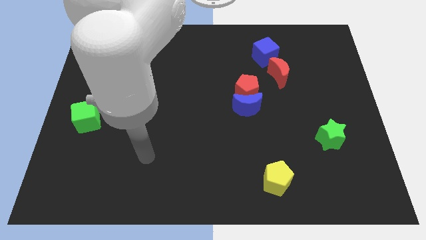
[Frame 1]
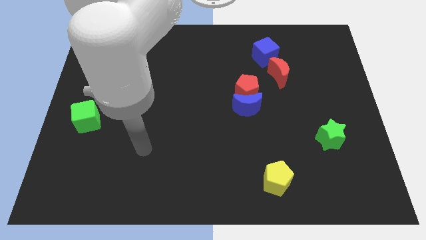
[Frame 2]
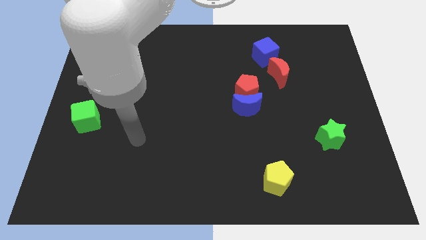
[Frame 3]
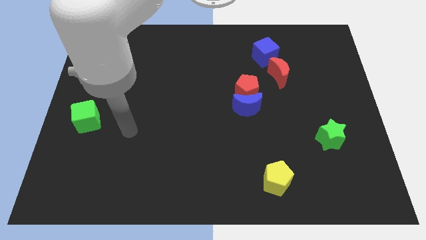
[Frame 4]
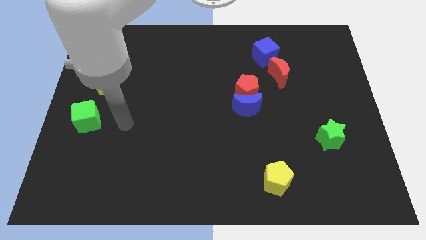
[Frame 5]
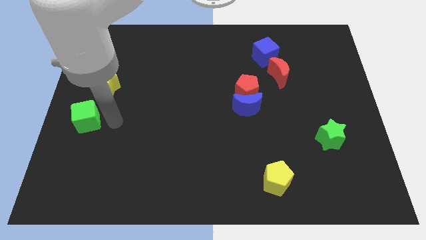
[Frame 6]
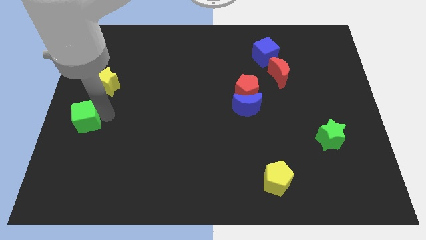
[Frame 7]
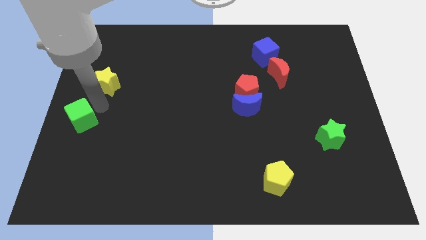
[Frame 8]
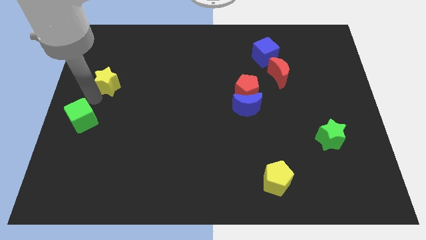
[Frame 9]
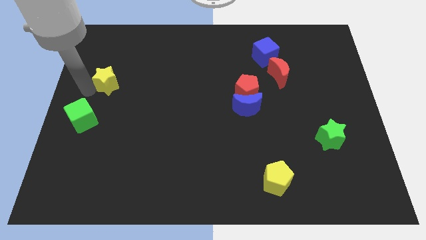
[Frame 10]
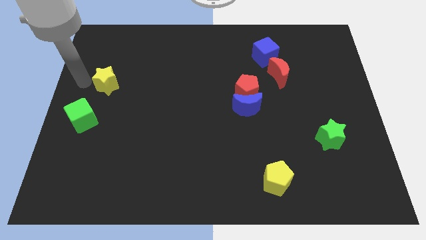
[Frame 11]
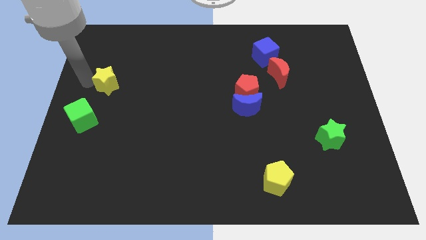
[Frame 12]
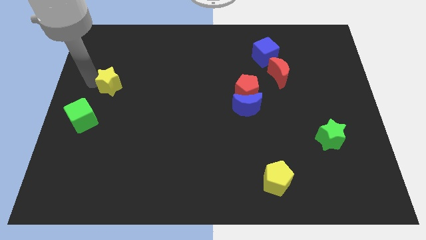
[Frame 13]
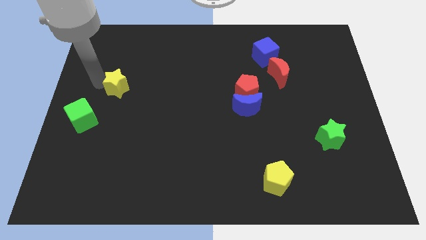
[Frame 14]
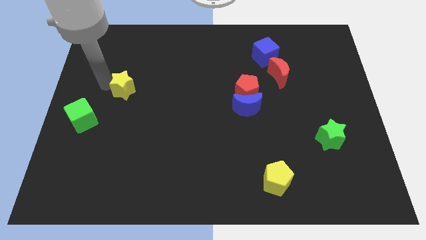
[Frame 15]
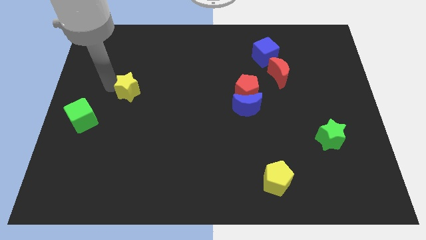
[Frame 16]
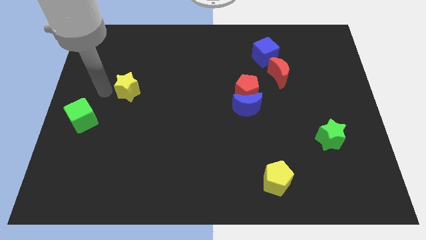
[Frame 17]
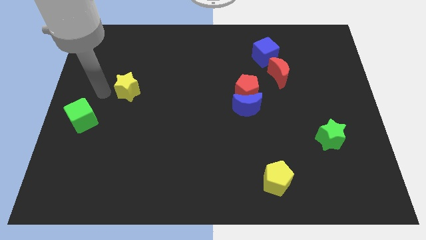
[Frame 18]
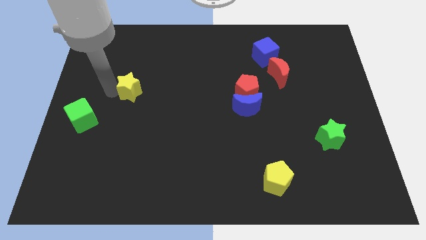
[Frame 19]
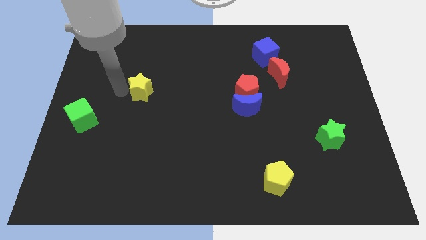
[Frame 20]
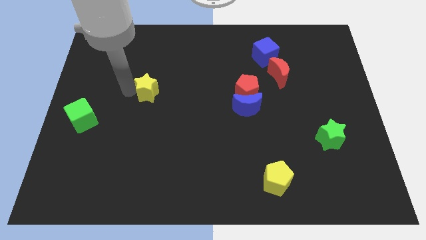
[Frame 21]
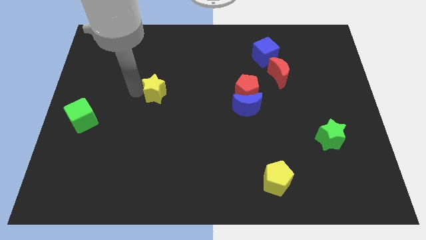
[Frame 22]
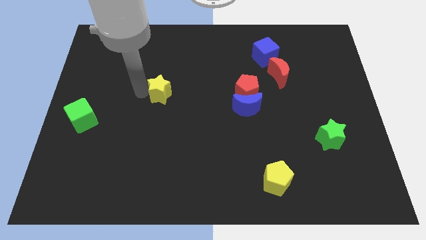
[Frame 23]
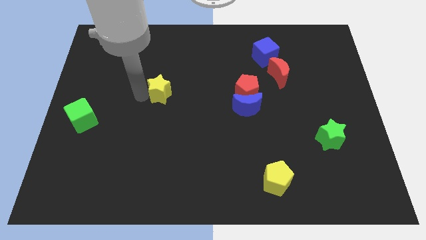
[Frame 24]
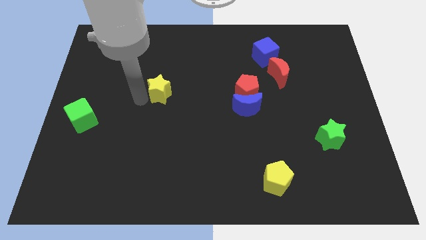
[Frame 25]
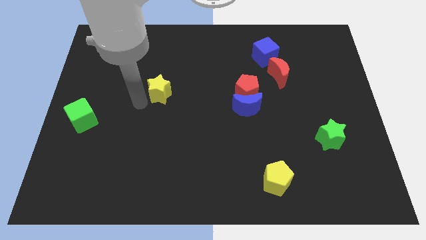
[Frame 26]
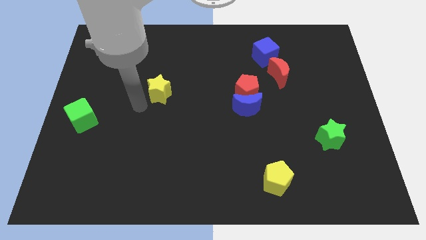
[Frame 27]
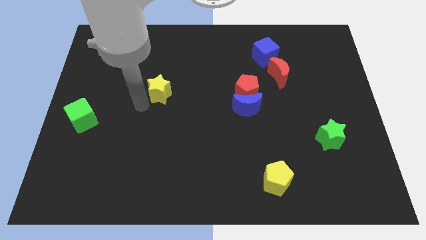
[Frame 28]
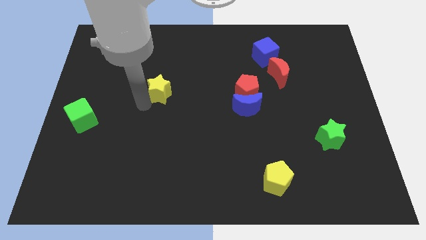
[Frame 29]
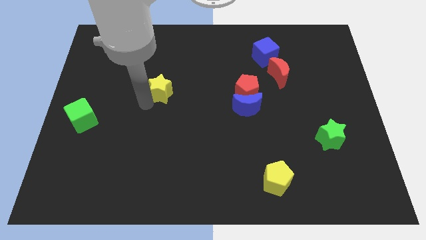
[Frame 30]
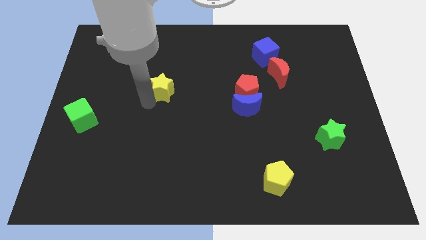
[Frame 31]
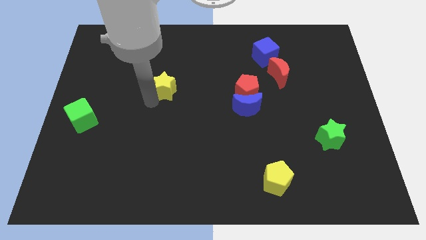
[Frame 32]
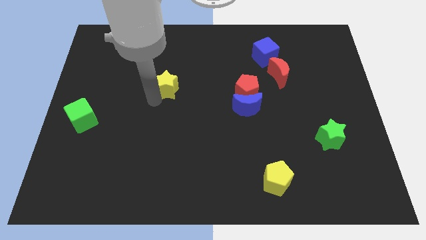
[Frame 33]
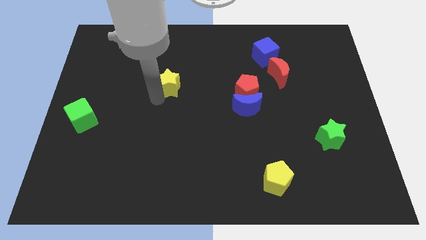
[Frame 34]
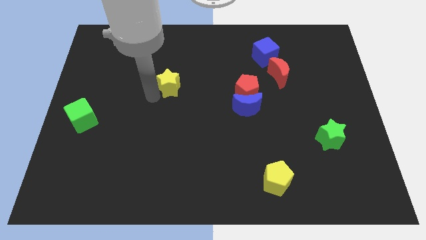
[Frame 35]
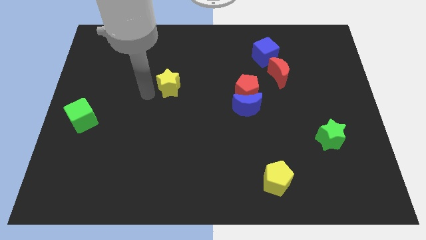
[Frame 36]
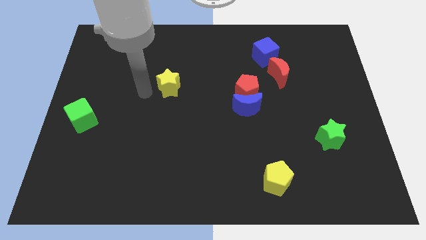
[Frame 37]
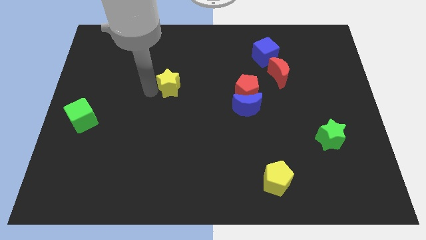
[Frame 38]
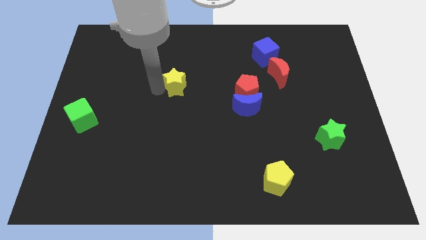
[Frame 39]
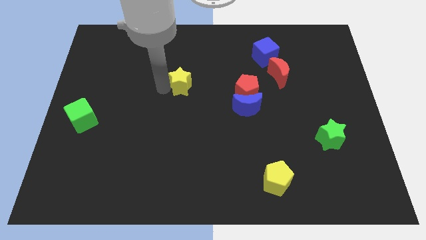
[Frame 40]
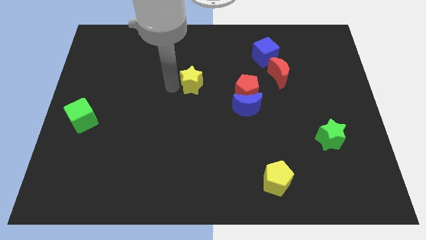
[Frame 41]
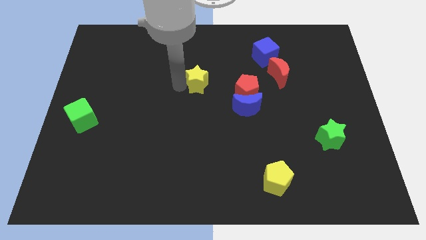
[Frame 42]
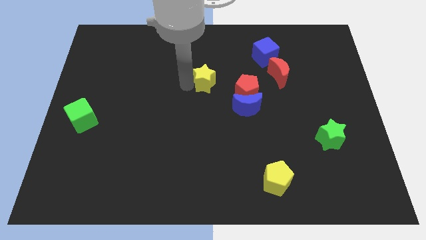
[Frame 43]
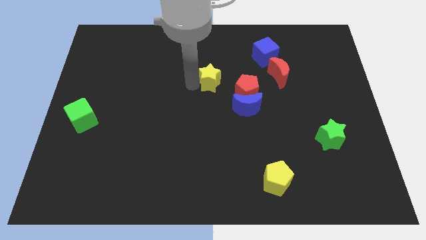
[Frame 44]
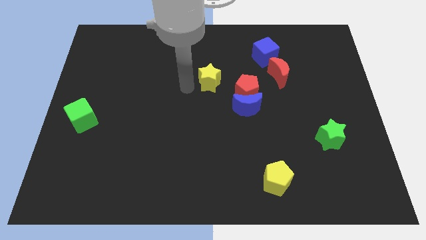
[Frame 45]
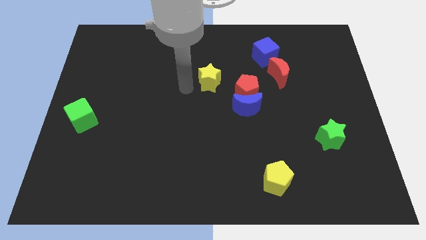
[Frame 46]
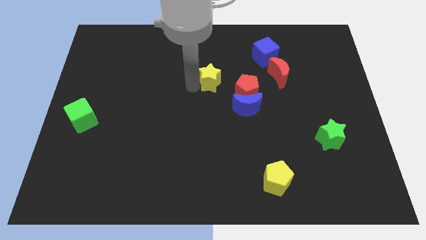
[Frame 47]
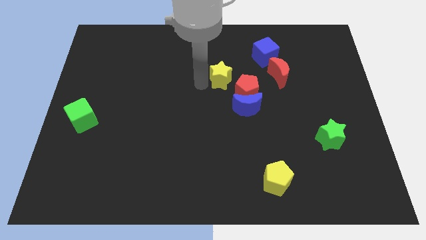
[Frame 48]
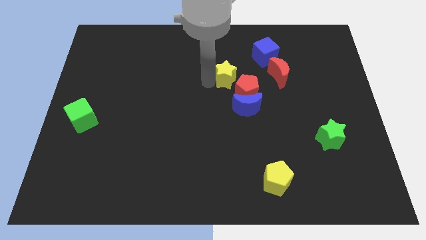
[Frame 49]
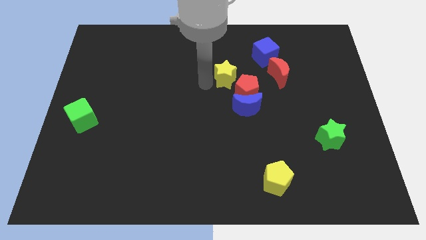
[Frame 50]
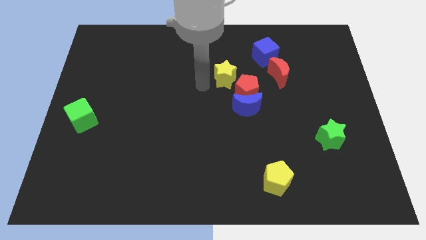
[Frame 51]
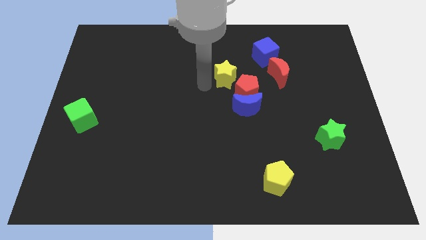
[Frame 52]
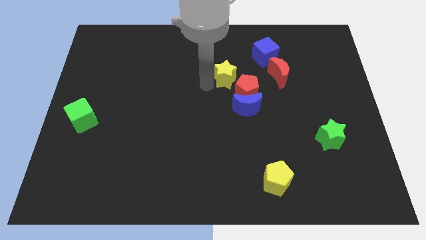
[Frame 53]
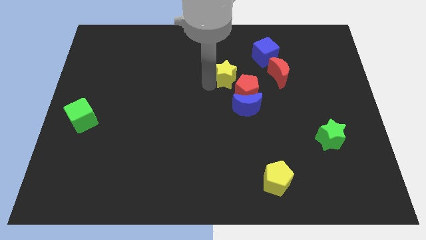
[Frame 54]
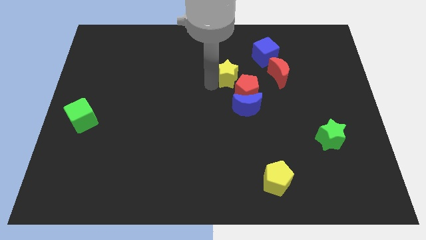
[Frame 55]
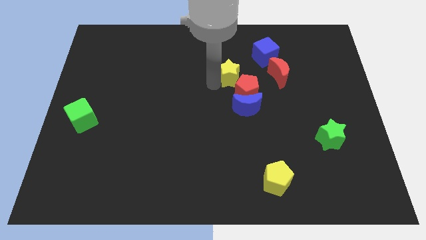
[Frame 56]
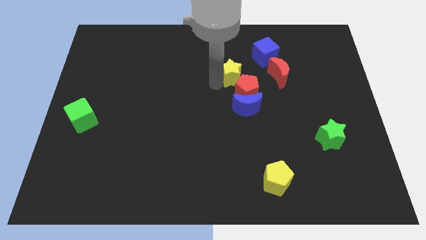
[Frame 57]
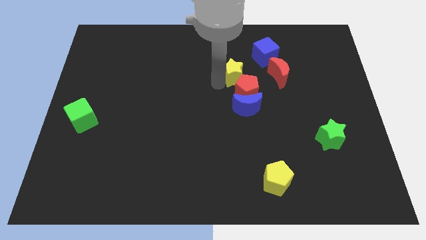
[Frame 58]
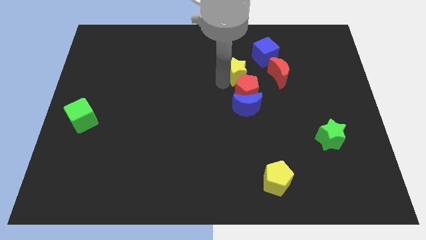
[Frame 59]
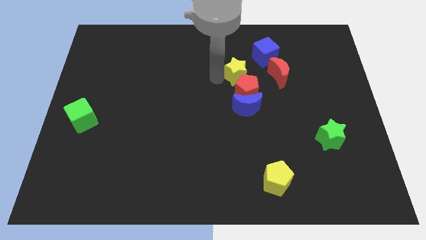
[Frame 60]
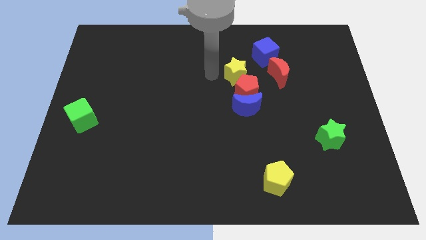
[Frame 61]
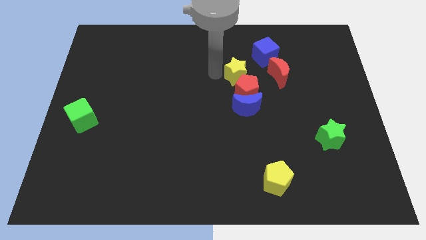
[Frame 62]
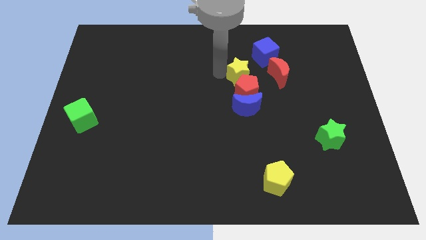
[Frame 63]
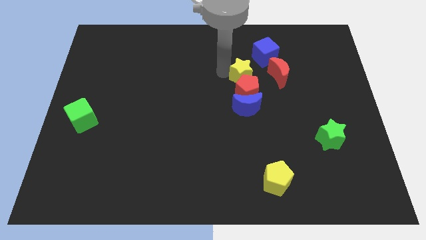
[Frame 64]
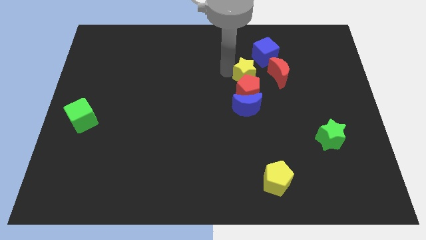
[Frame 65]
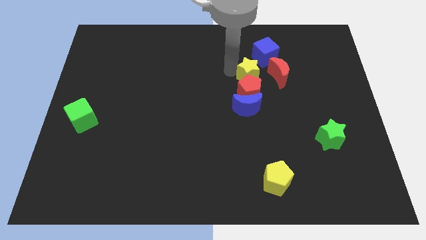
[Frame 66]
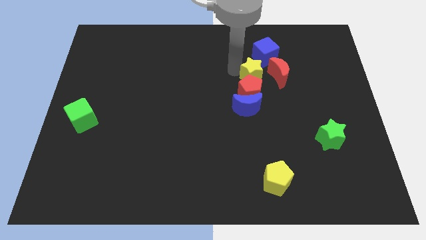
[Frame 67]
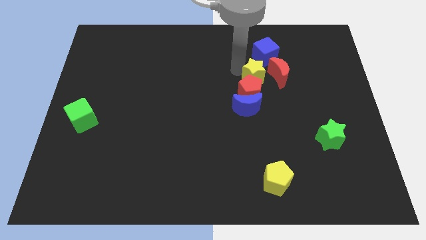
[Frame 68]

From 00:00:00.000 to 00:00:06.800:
put the yellow star next to the red moon

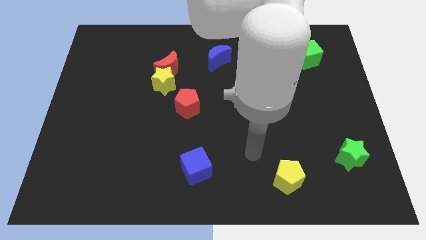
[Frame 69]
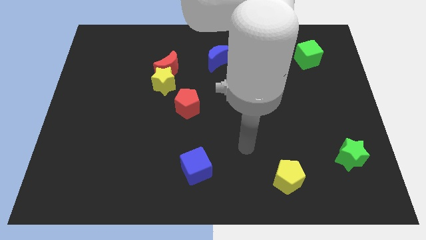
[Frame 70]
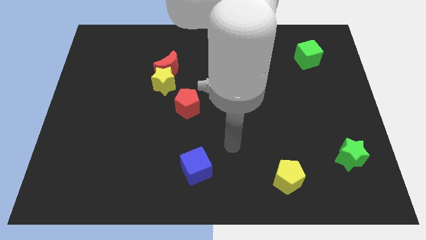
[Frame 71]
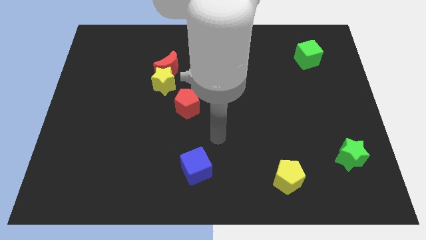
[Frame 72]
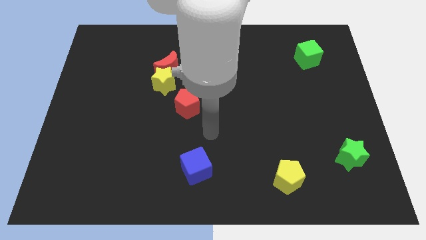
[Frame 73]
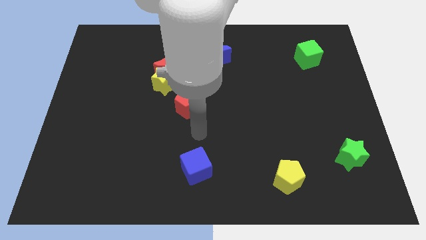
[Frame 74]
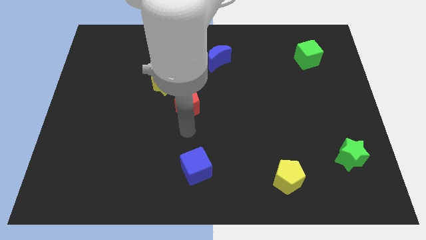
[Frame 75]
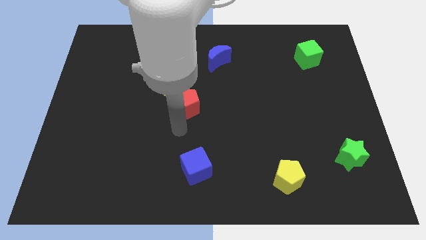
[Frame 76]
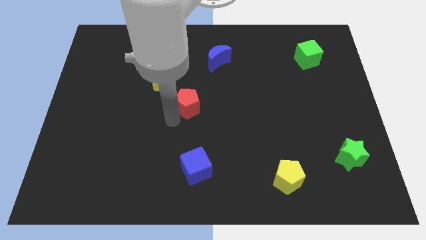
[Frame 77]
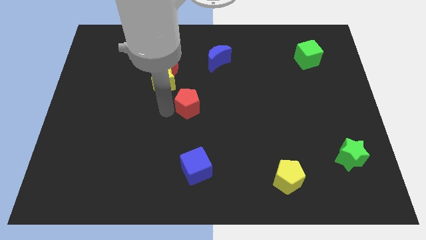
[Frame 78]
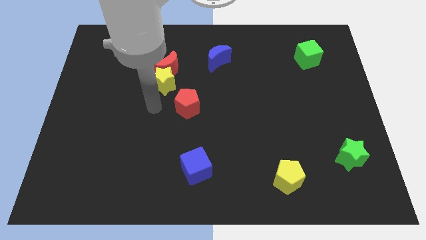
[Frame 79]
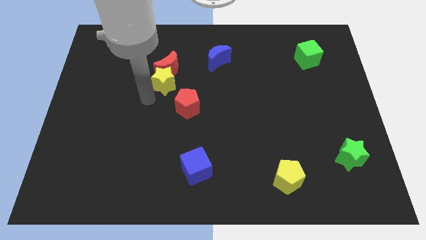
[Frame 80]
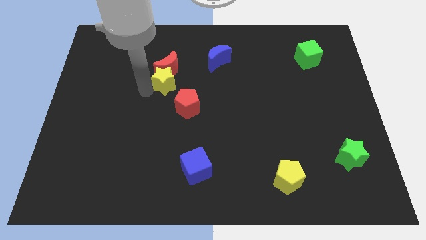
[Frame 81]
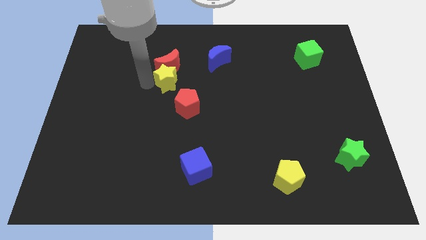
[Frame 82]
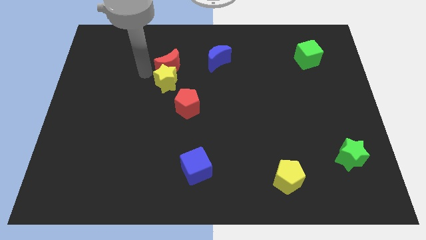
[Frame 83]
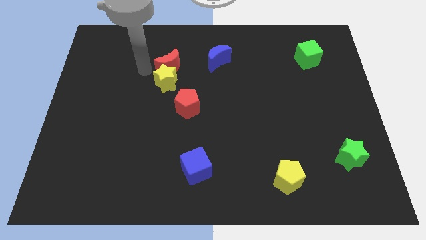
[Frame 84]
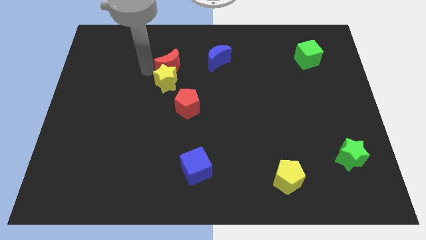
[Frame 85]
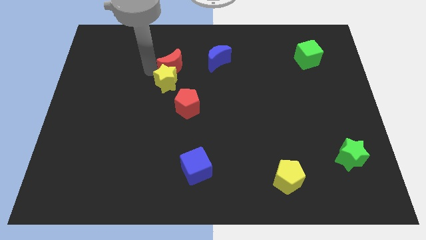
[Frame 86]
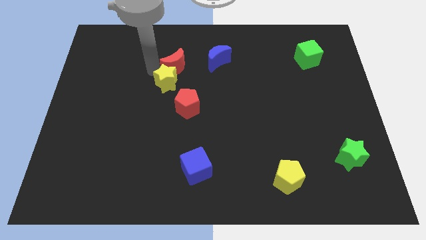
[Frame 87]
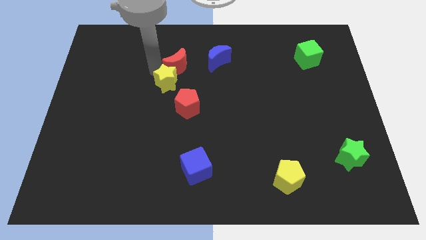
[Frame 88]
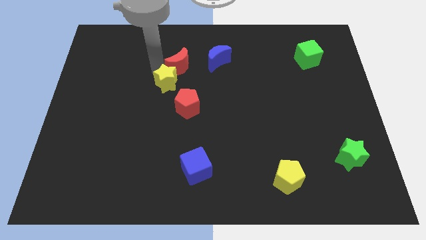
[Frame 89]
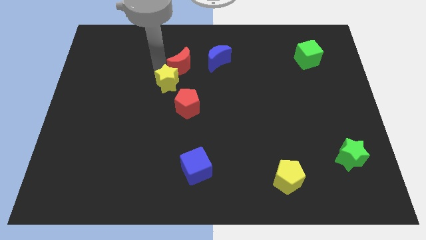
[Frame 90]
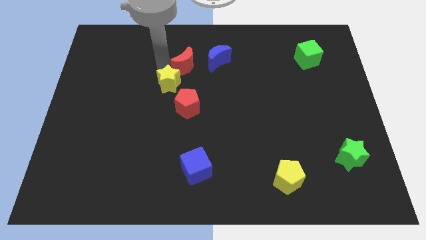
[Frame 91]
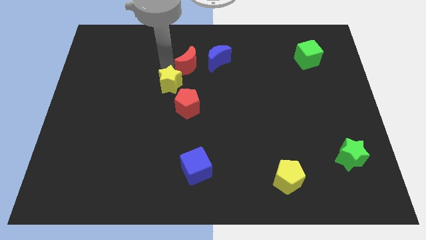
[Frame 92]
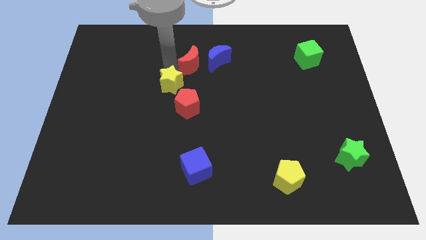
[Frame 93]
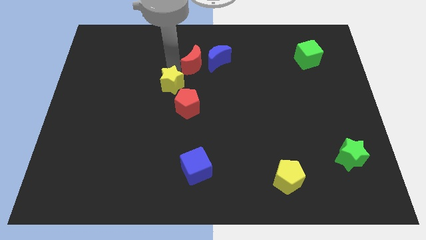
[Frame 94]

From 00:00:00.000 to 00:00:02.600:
put the red moon next to the blue moon
